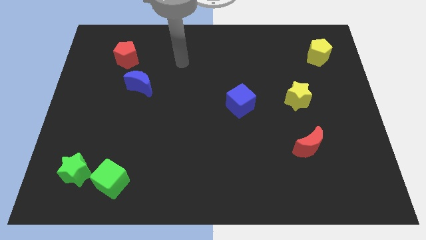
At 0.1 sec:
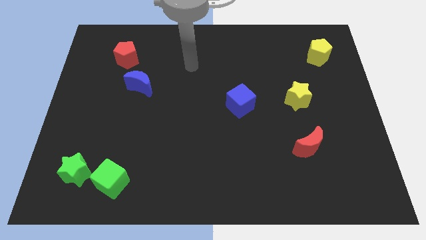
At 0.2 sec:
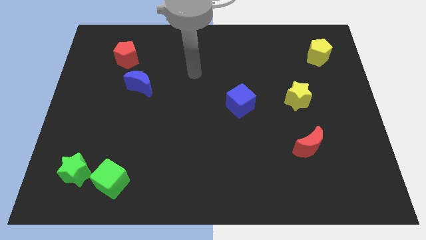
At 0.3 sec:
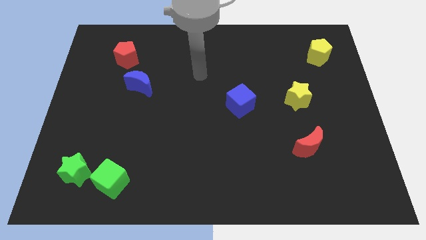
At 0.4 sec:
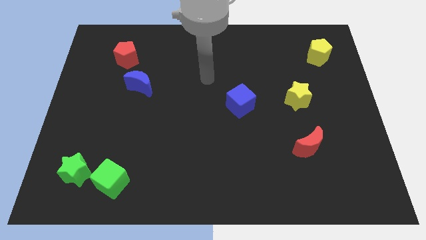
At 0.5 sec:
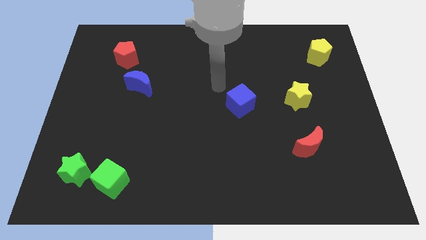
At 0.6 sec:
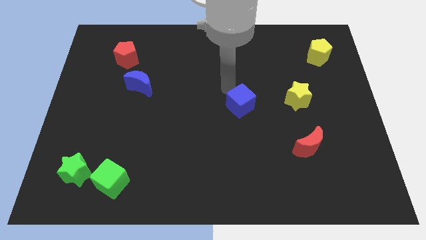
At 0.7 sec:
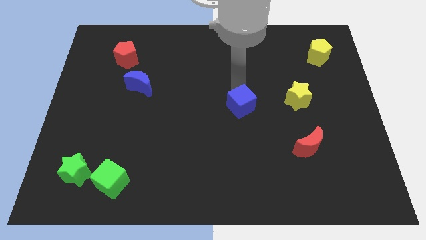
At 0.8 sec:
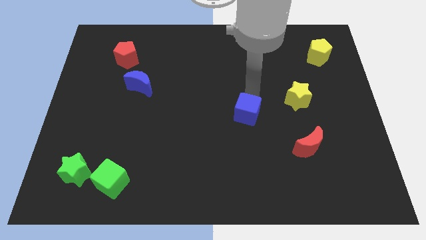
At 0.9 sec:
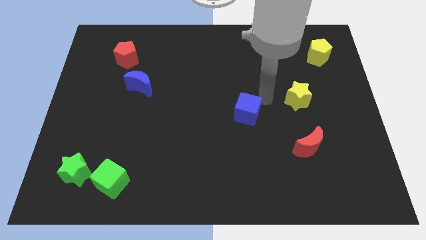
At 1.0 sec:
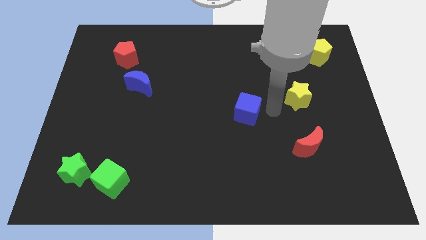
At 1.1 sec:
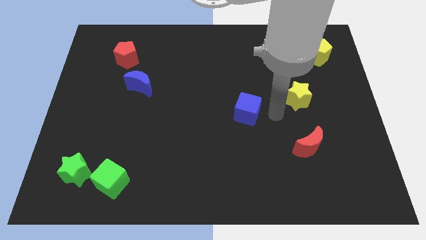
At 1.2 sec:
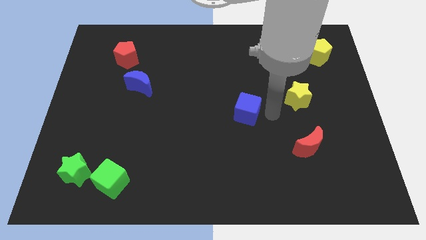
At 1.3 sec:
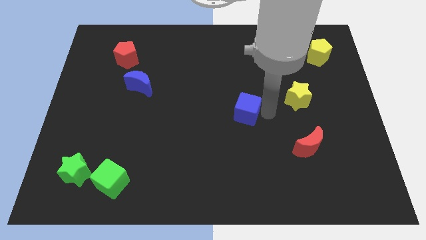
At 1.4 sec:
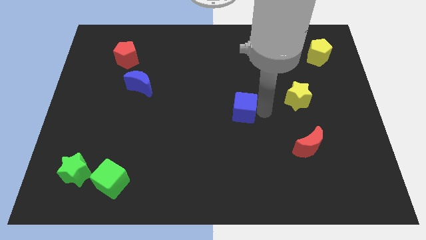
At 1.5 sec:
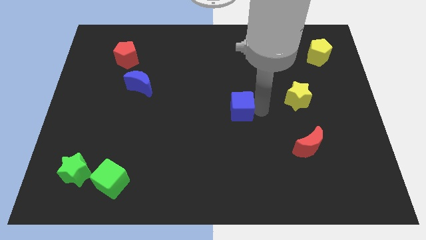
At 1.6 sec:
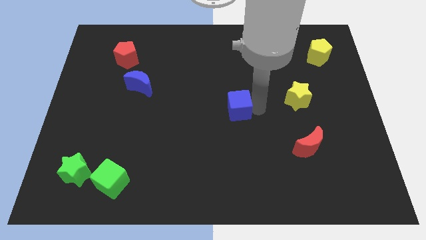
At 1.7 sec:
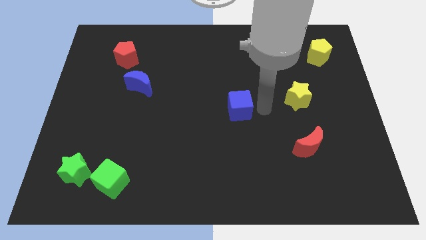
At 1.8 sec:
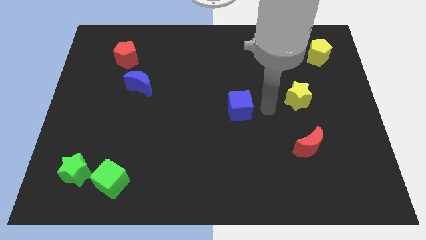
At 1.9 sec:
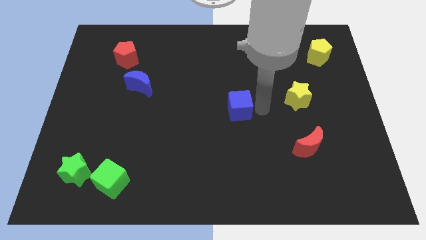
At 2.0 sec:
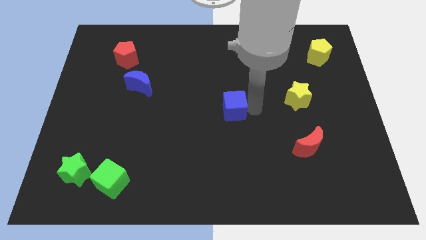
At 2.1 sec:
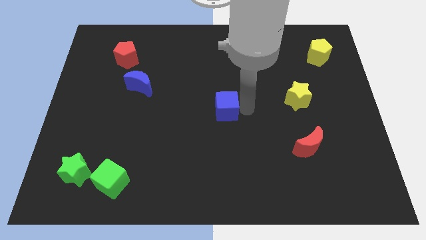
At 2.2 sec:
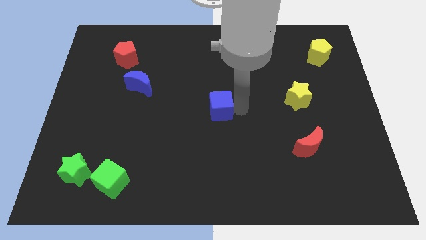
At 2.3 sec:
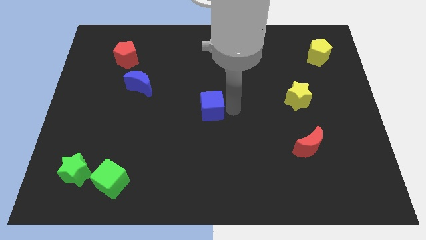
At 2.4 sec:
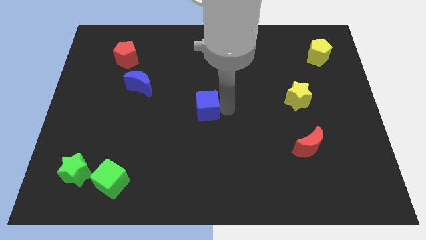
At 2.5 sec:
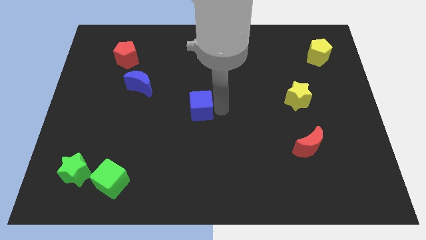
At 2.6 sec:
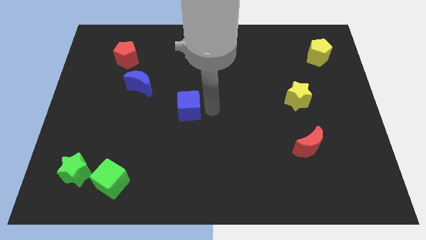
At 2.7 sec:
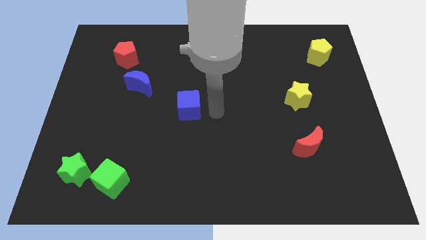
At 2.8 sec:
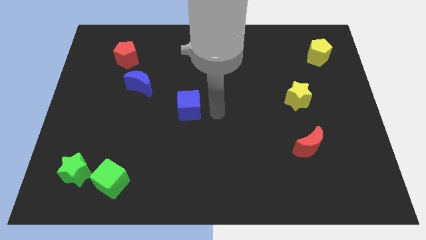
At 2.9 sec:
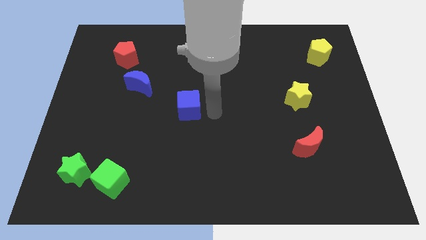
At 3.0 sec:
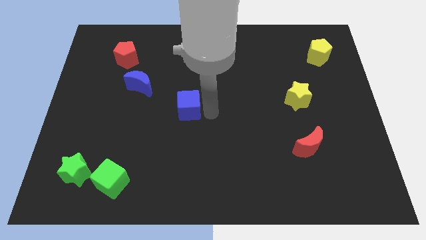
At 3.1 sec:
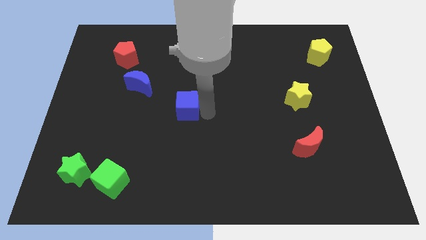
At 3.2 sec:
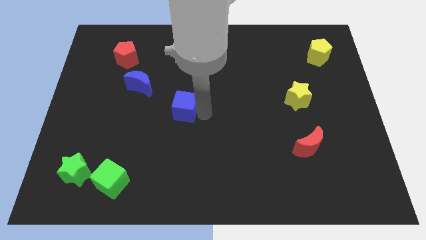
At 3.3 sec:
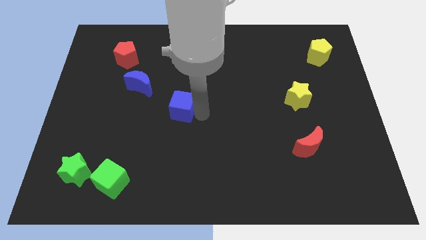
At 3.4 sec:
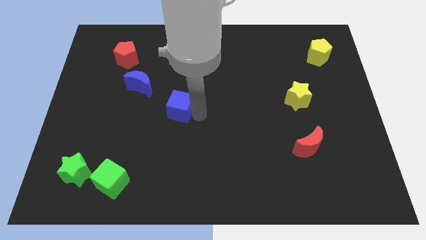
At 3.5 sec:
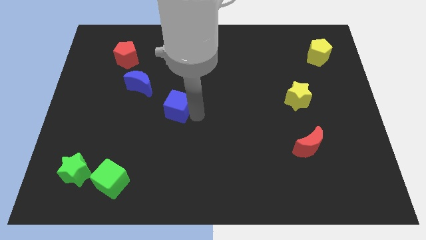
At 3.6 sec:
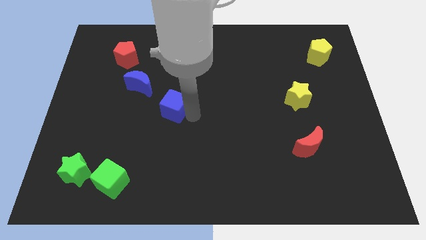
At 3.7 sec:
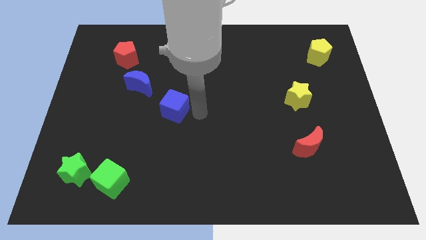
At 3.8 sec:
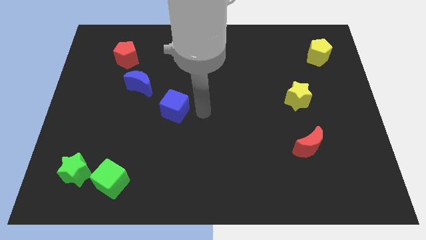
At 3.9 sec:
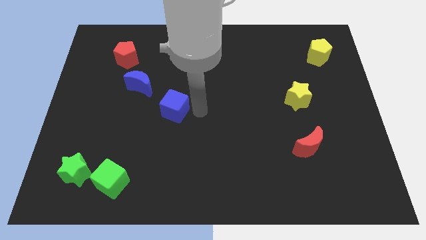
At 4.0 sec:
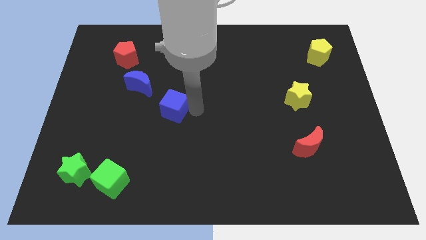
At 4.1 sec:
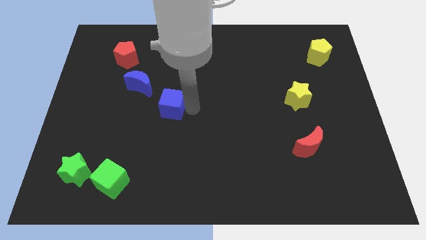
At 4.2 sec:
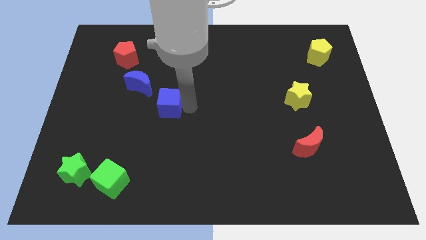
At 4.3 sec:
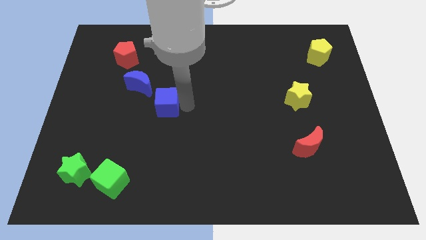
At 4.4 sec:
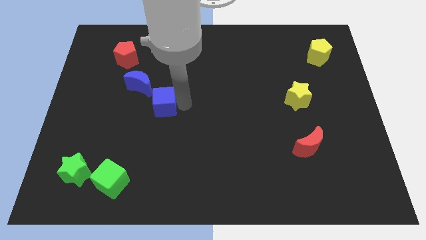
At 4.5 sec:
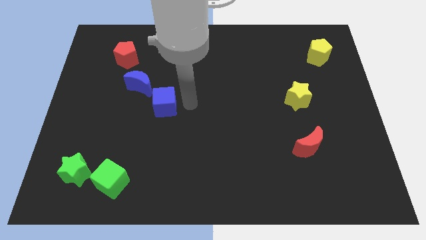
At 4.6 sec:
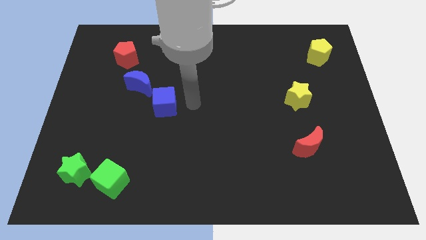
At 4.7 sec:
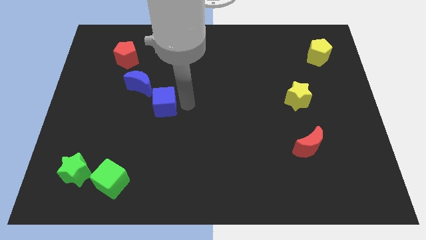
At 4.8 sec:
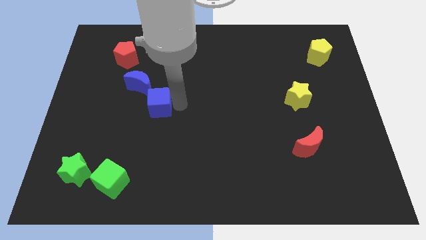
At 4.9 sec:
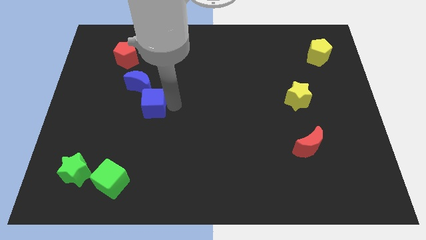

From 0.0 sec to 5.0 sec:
push the blue cube to the left

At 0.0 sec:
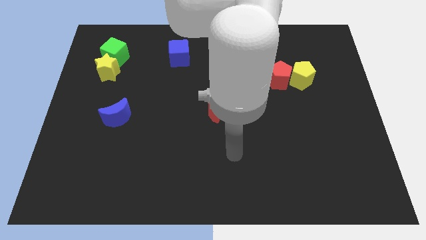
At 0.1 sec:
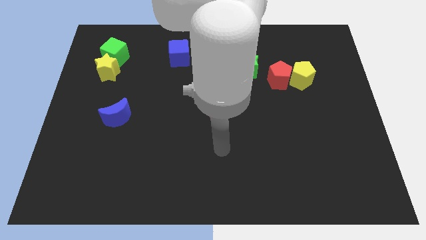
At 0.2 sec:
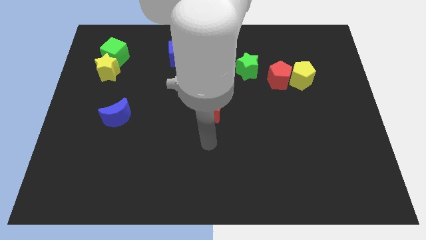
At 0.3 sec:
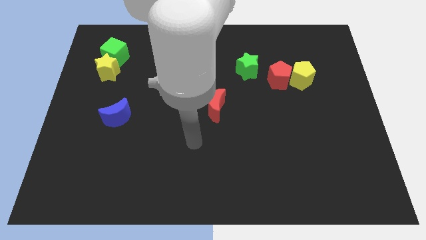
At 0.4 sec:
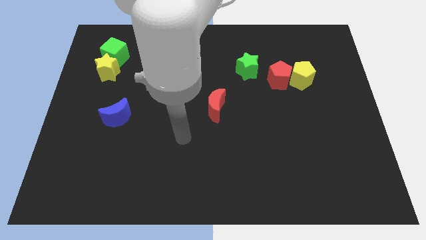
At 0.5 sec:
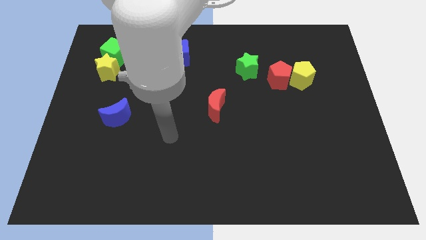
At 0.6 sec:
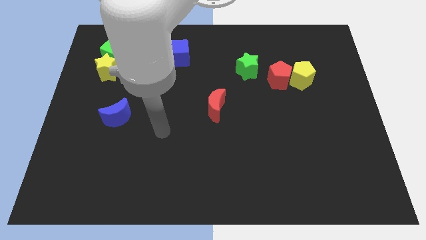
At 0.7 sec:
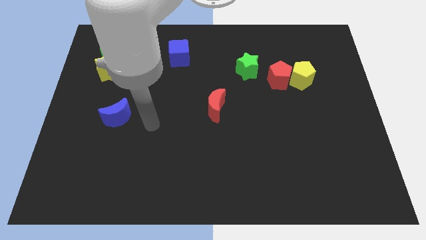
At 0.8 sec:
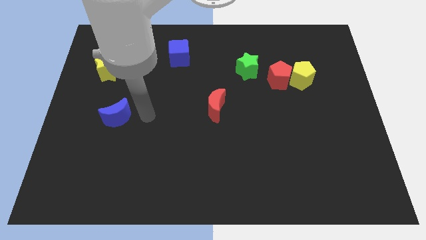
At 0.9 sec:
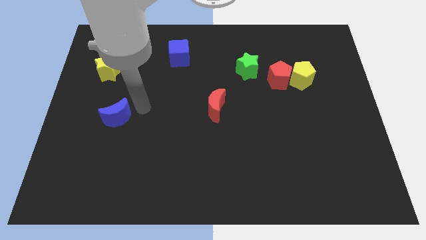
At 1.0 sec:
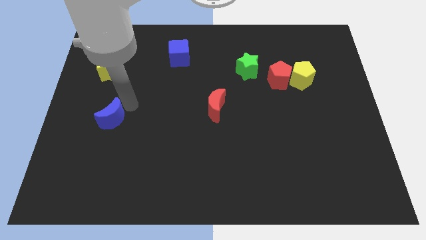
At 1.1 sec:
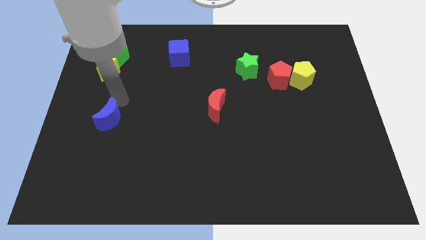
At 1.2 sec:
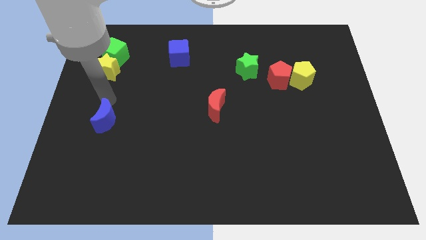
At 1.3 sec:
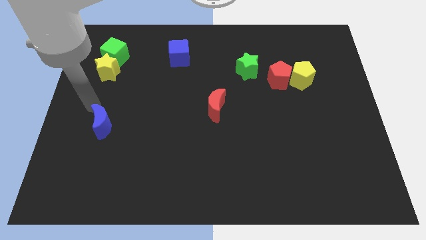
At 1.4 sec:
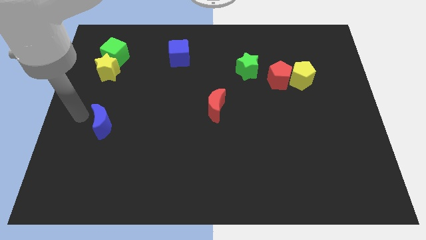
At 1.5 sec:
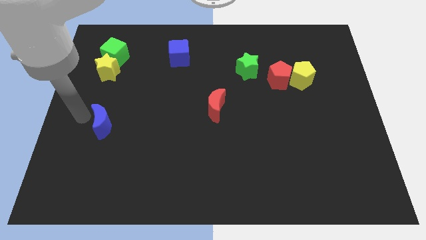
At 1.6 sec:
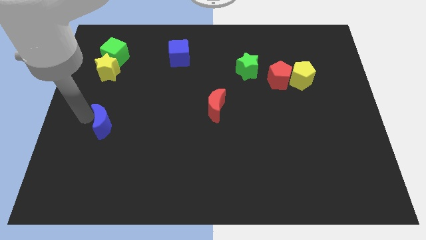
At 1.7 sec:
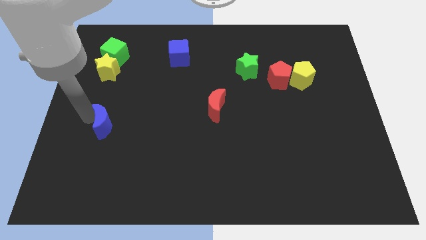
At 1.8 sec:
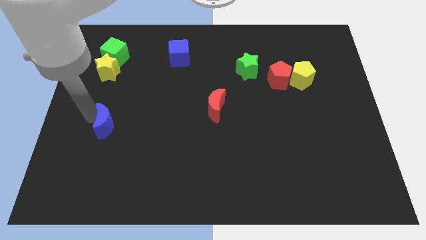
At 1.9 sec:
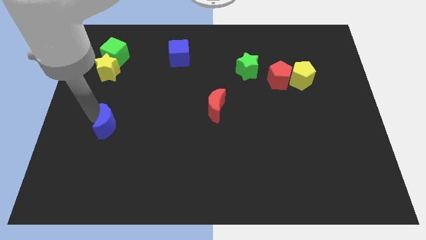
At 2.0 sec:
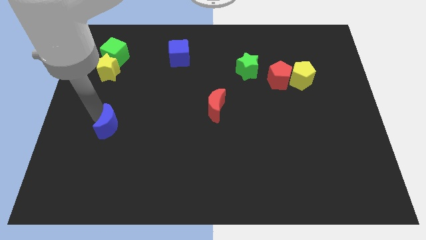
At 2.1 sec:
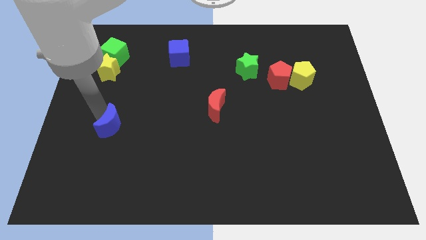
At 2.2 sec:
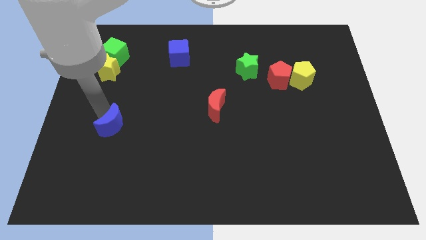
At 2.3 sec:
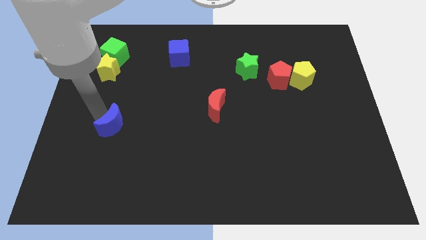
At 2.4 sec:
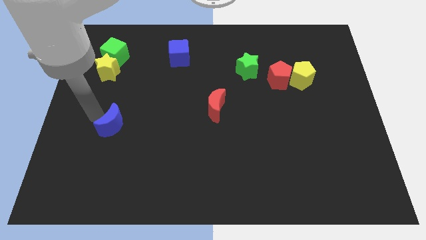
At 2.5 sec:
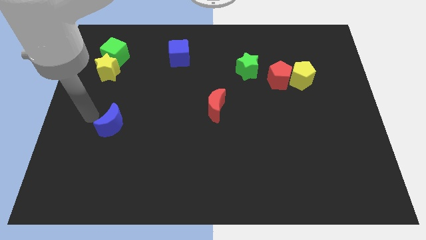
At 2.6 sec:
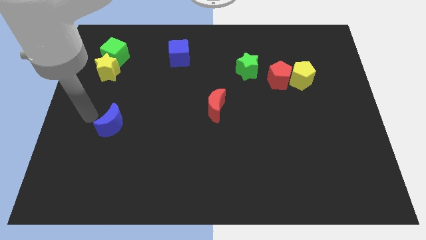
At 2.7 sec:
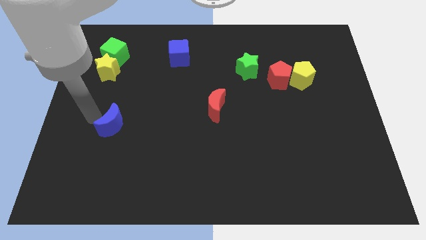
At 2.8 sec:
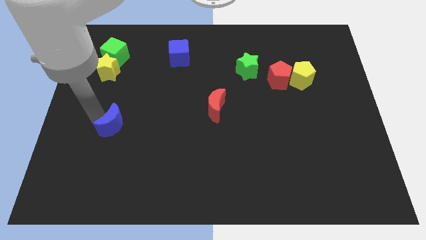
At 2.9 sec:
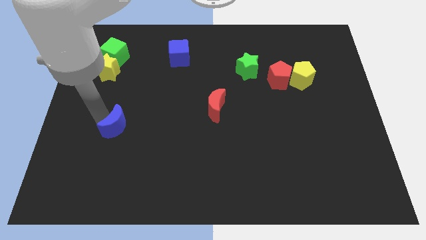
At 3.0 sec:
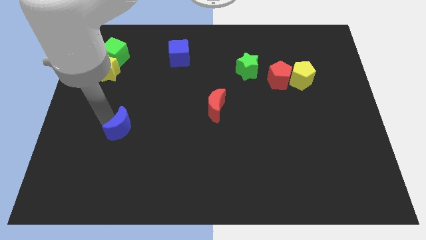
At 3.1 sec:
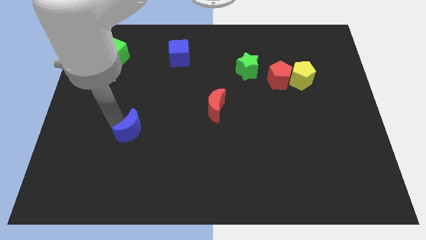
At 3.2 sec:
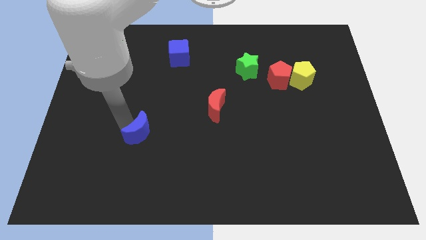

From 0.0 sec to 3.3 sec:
slightly push the blue moon down and right diagonally
